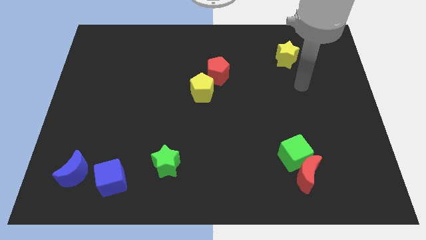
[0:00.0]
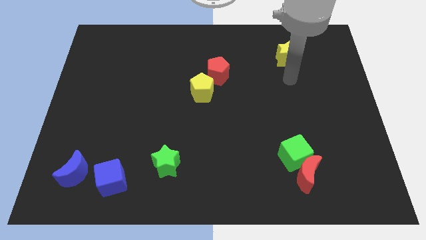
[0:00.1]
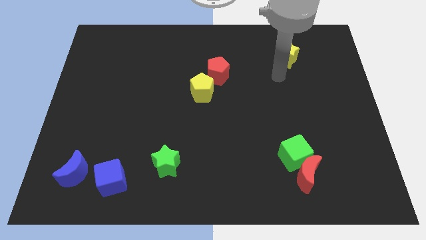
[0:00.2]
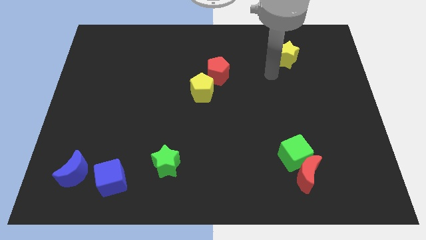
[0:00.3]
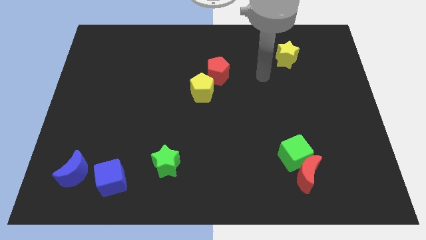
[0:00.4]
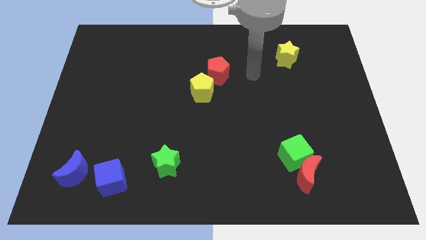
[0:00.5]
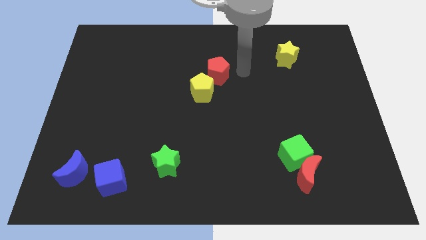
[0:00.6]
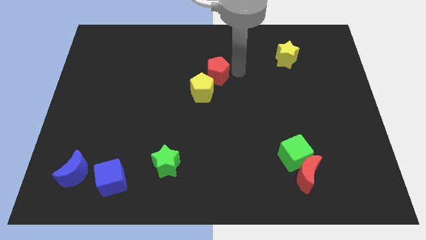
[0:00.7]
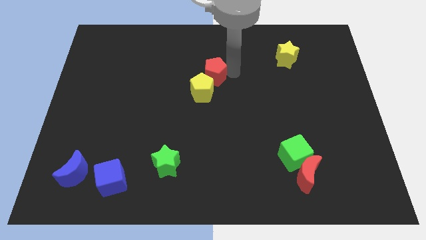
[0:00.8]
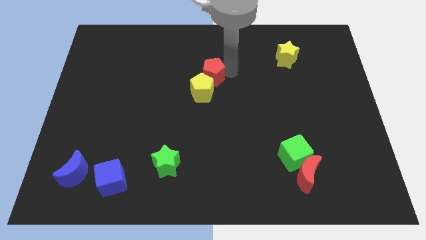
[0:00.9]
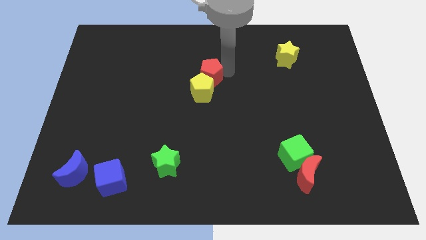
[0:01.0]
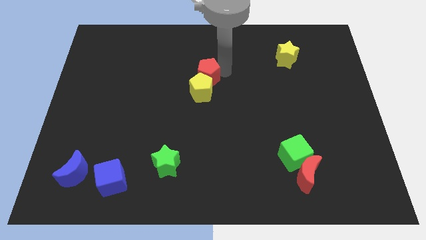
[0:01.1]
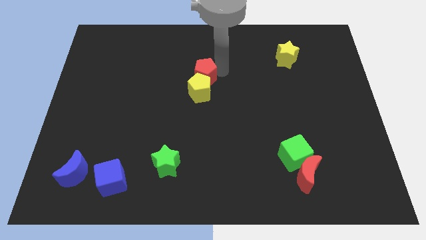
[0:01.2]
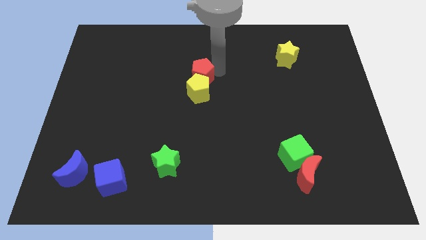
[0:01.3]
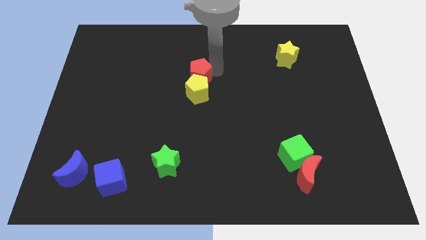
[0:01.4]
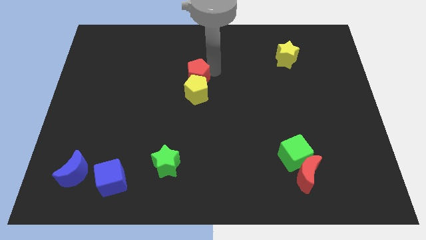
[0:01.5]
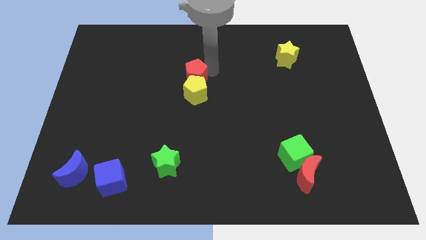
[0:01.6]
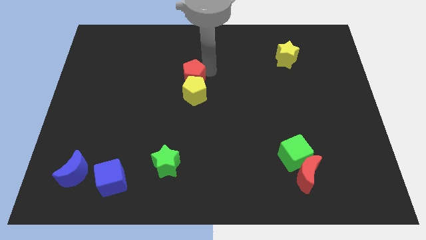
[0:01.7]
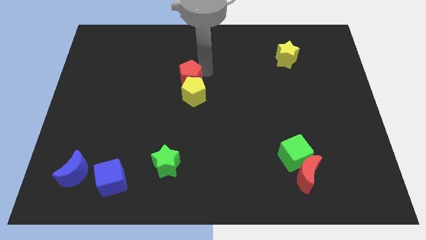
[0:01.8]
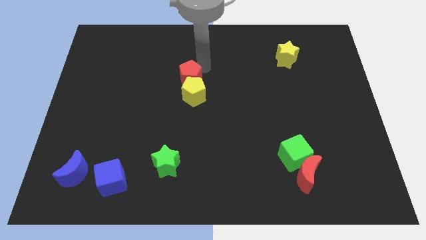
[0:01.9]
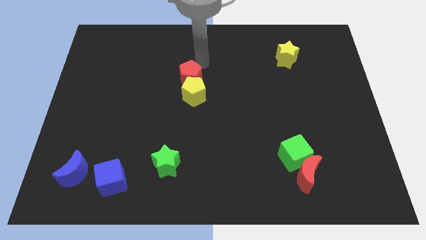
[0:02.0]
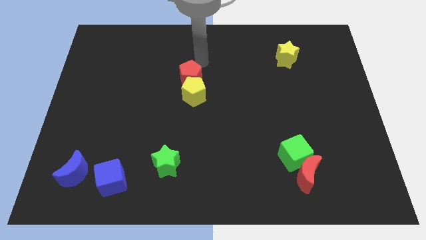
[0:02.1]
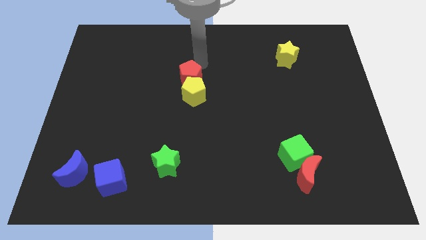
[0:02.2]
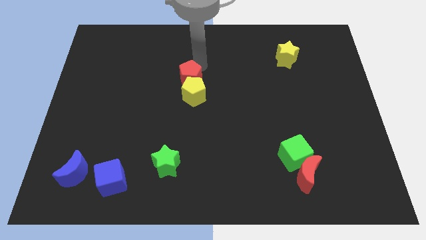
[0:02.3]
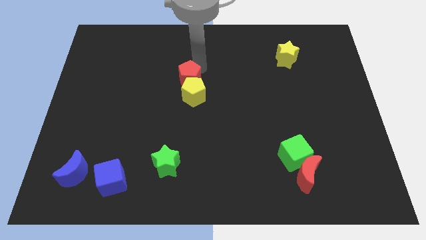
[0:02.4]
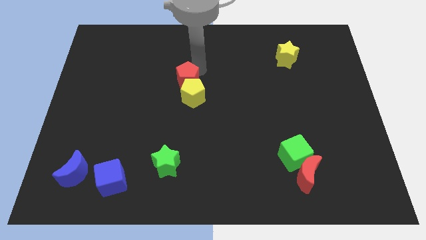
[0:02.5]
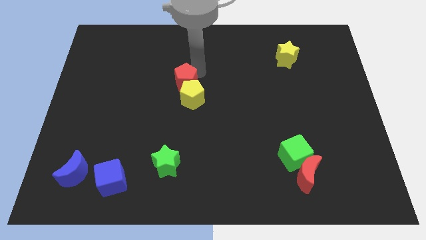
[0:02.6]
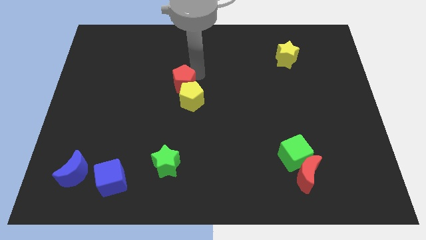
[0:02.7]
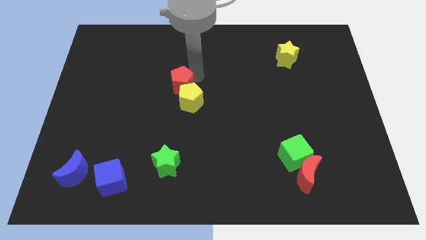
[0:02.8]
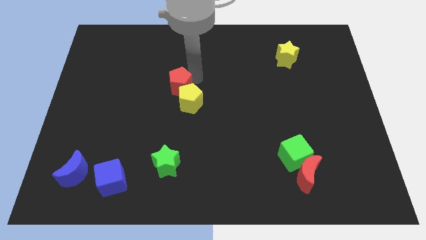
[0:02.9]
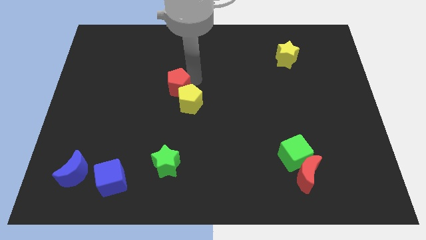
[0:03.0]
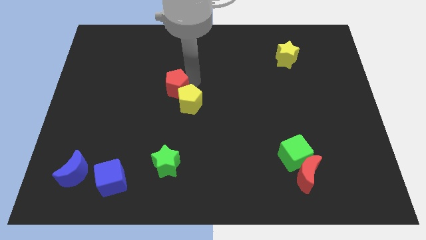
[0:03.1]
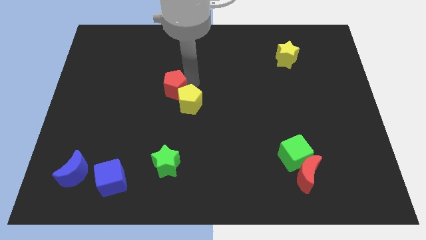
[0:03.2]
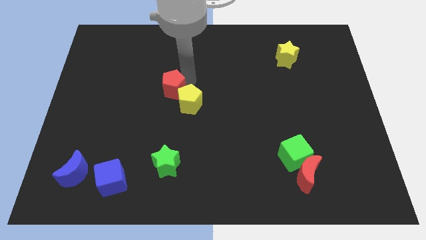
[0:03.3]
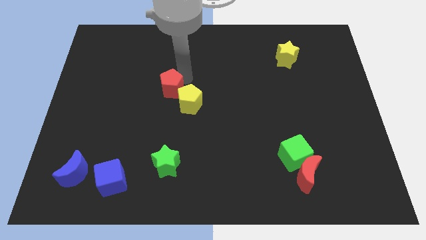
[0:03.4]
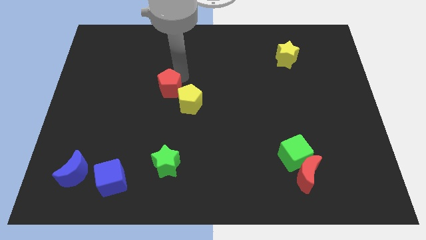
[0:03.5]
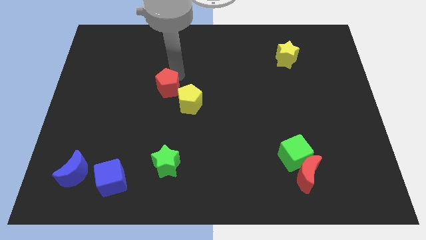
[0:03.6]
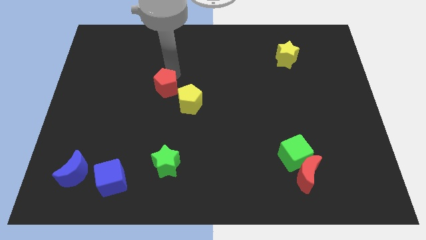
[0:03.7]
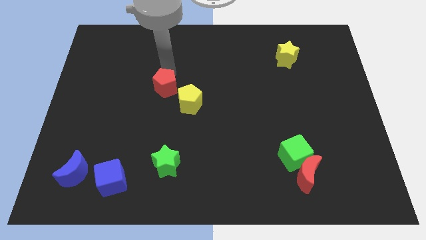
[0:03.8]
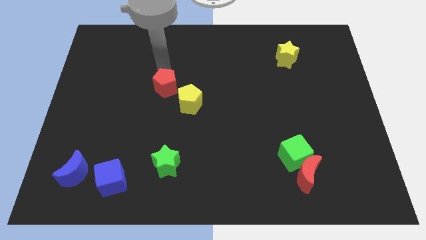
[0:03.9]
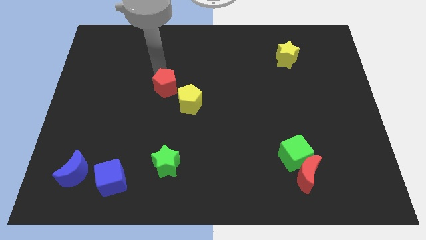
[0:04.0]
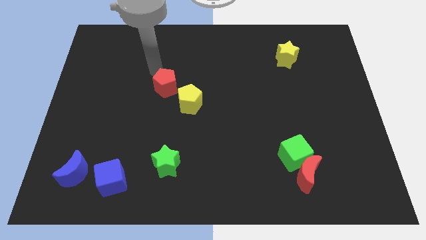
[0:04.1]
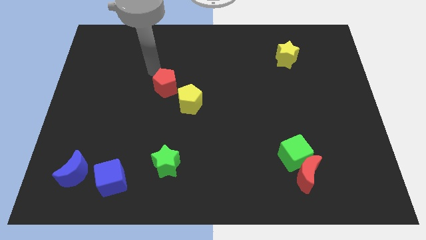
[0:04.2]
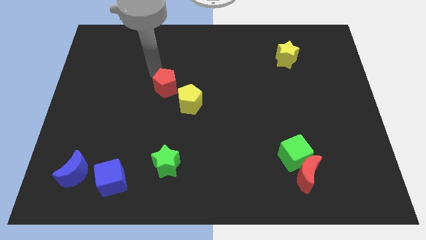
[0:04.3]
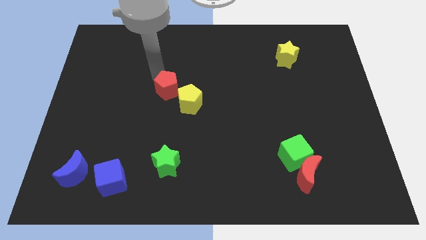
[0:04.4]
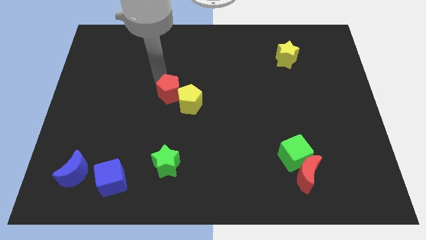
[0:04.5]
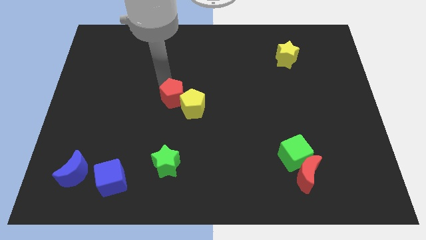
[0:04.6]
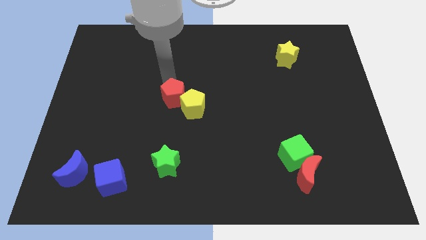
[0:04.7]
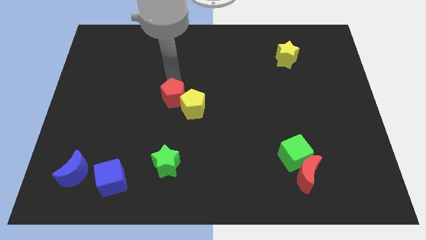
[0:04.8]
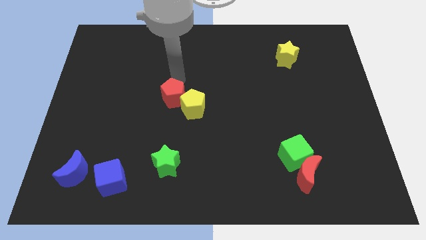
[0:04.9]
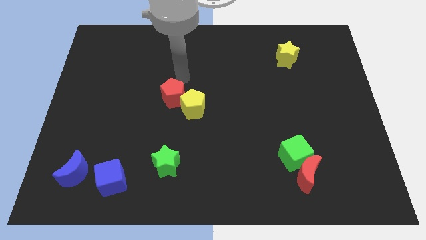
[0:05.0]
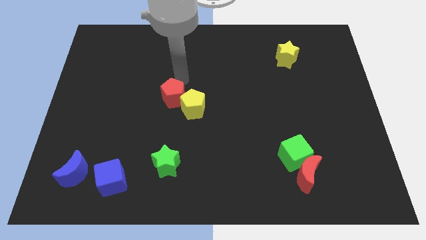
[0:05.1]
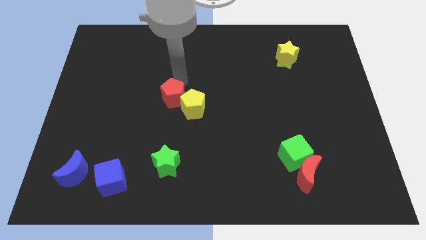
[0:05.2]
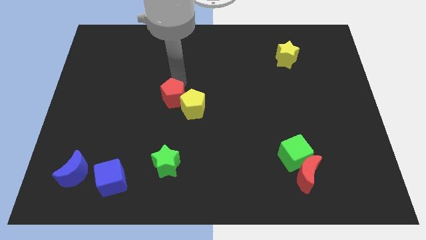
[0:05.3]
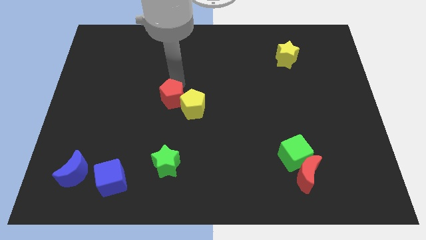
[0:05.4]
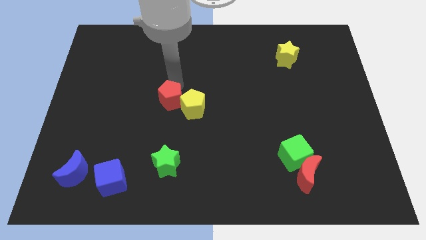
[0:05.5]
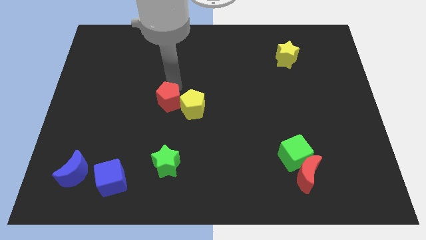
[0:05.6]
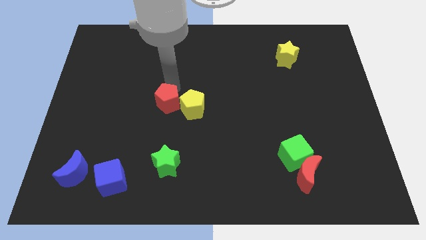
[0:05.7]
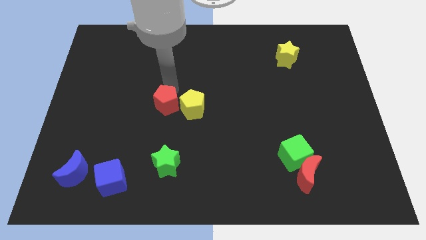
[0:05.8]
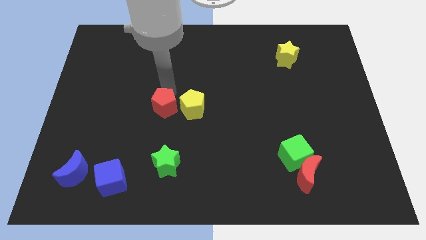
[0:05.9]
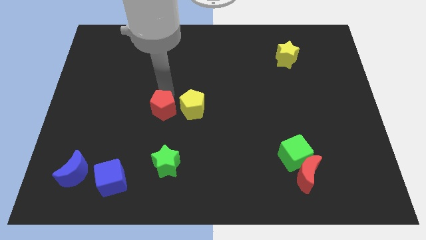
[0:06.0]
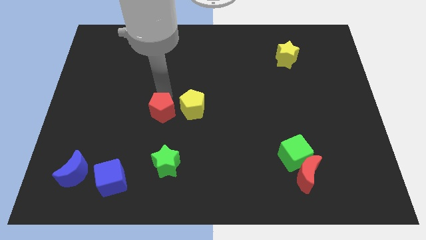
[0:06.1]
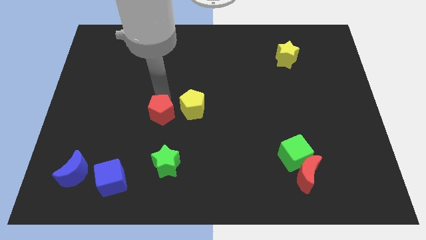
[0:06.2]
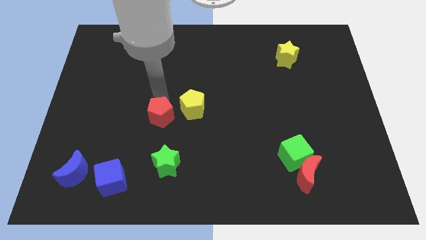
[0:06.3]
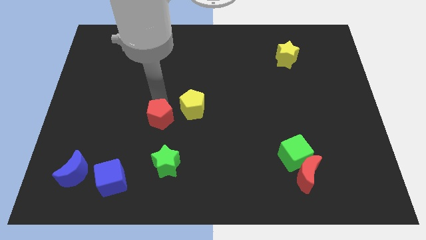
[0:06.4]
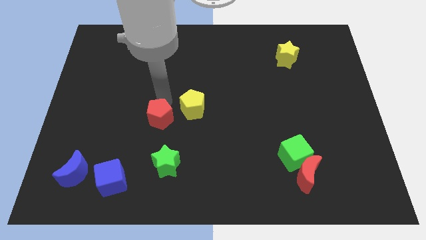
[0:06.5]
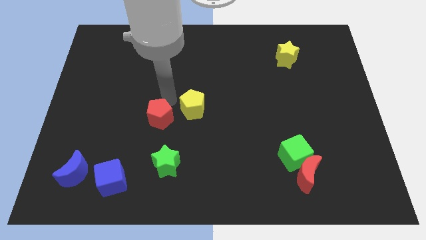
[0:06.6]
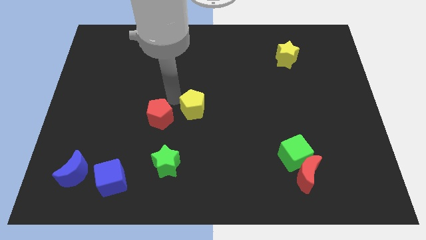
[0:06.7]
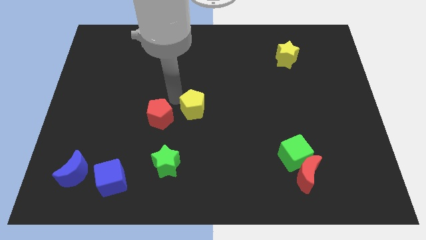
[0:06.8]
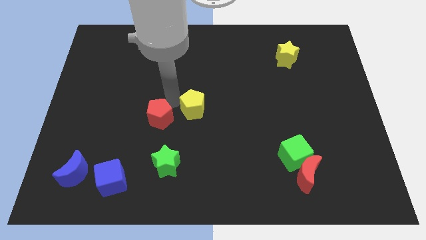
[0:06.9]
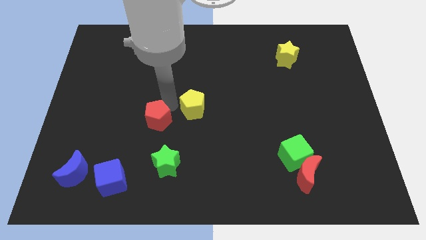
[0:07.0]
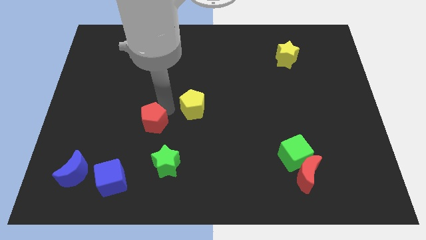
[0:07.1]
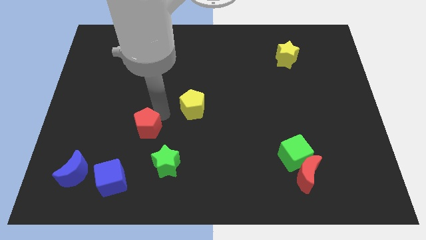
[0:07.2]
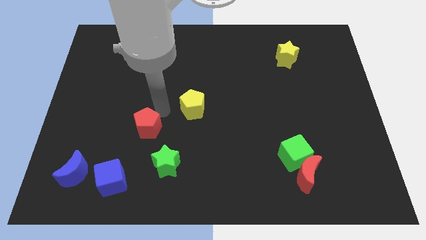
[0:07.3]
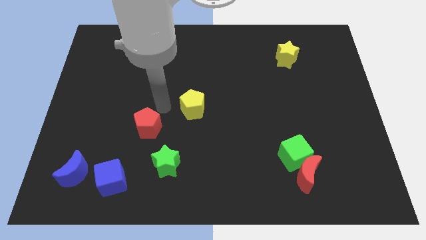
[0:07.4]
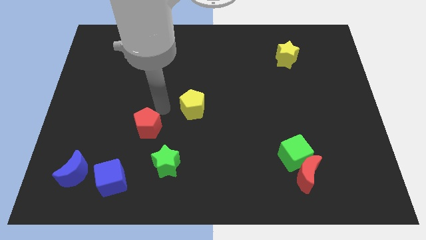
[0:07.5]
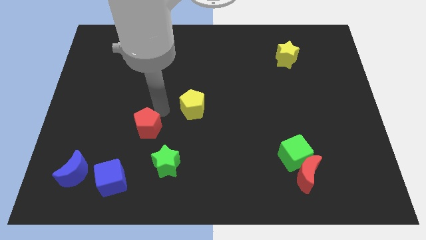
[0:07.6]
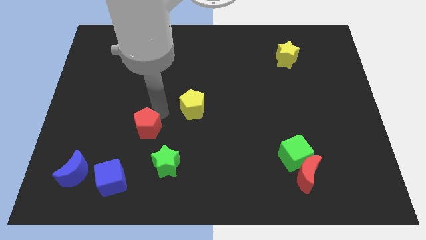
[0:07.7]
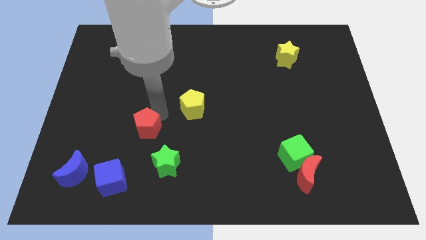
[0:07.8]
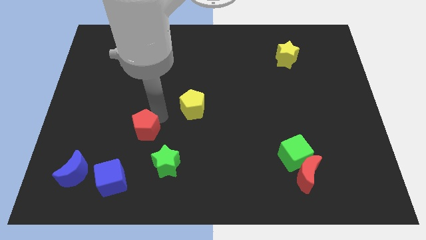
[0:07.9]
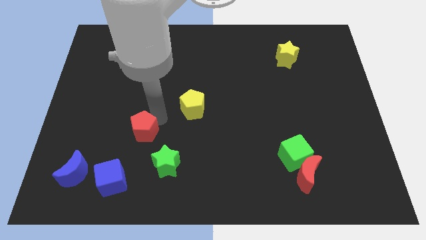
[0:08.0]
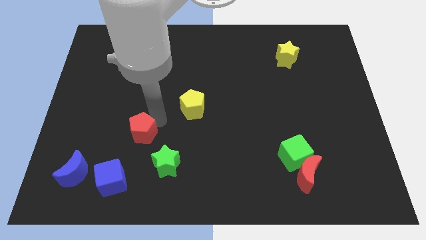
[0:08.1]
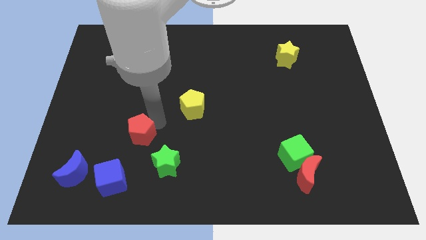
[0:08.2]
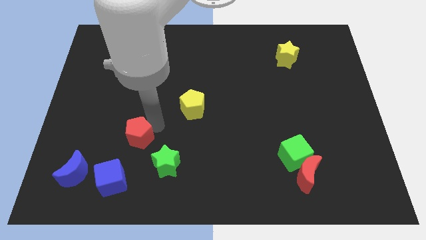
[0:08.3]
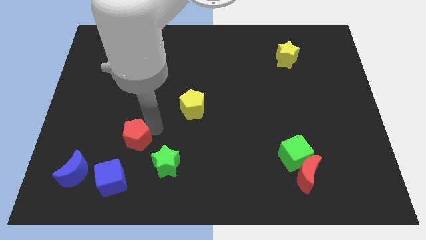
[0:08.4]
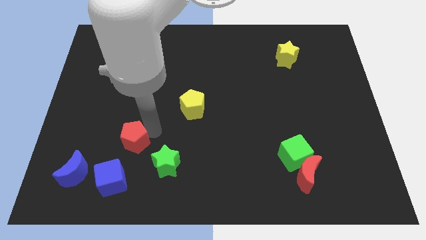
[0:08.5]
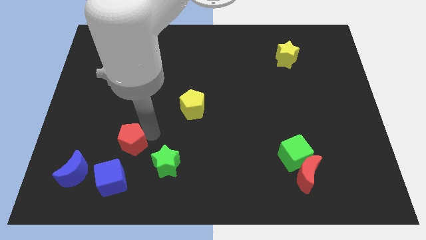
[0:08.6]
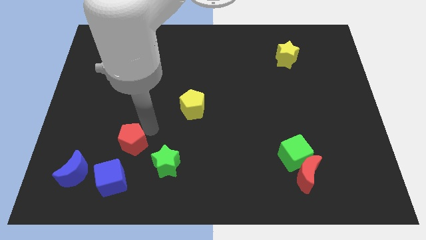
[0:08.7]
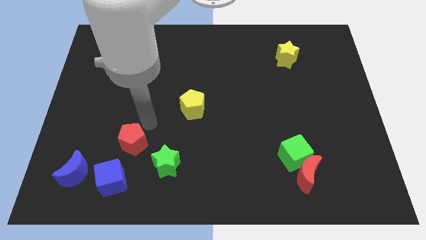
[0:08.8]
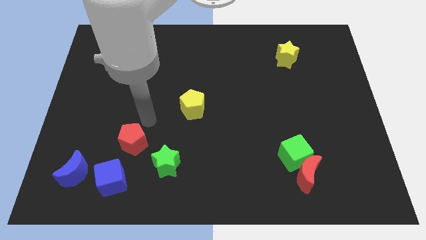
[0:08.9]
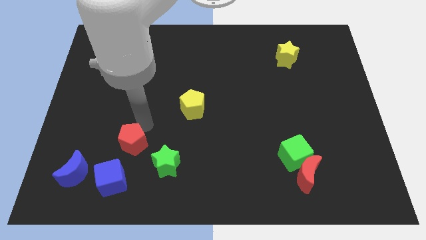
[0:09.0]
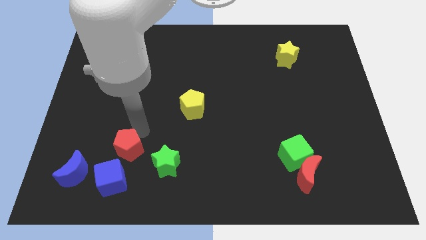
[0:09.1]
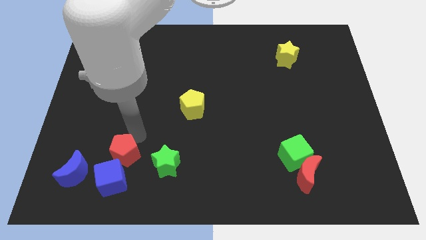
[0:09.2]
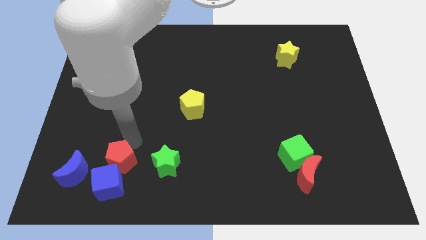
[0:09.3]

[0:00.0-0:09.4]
put the red pentagon towards the blue cube
